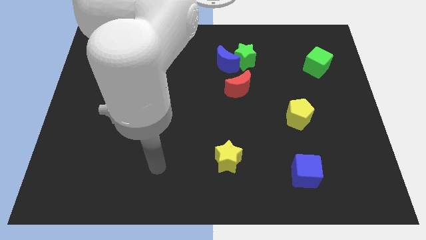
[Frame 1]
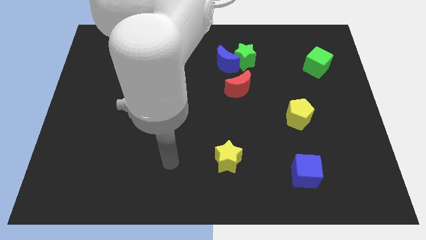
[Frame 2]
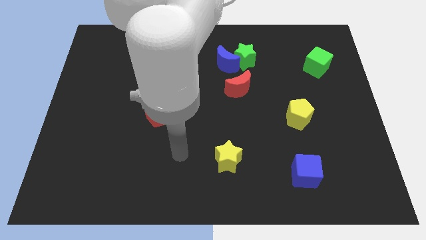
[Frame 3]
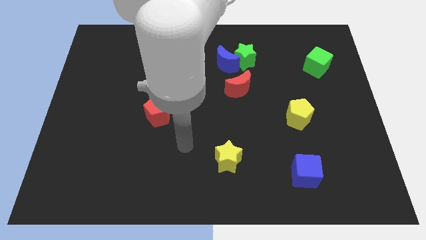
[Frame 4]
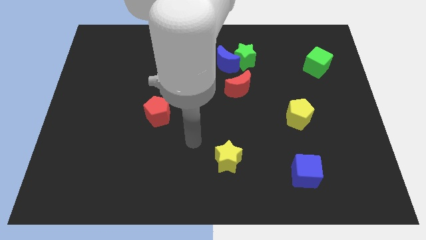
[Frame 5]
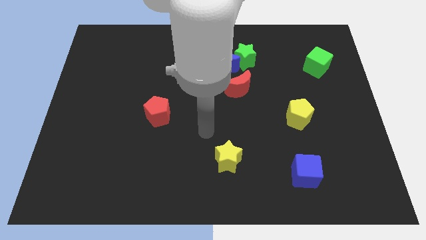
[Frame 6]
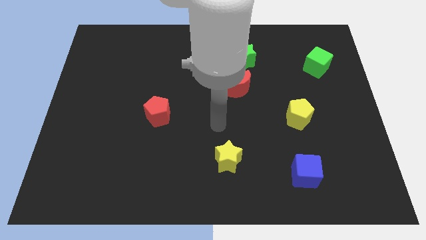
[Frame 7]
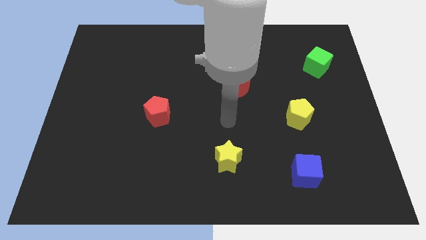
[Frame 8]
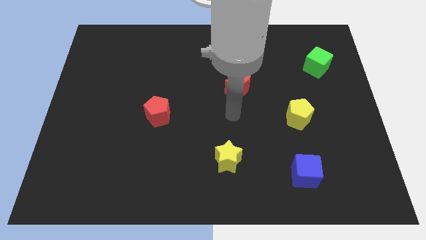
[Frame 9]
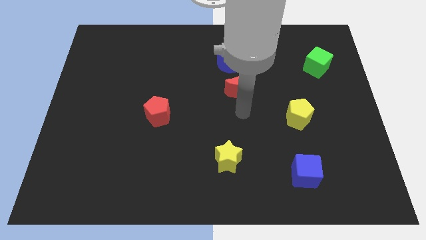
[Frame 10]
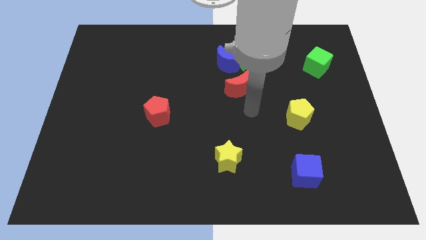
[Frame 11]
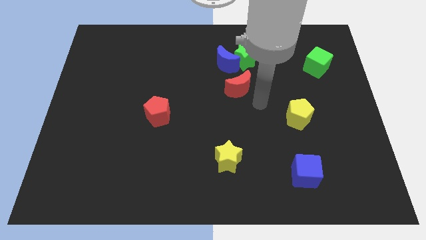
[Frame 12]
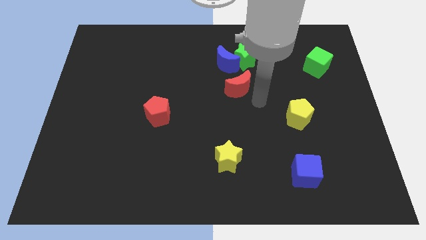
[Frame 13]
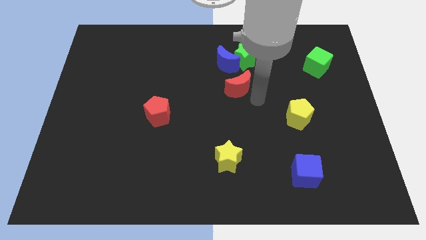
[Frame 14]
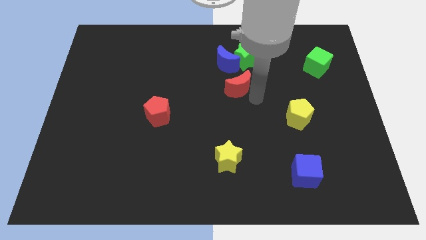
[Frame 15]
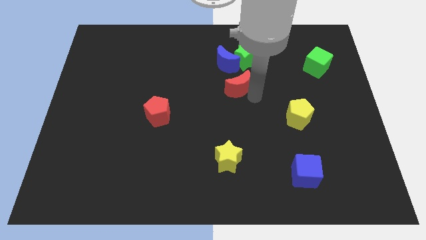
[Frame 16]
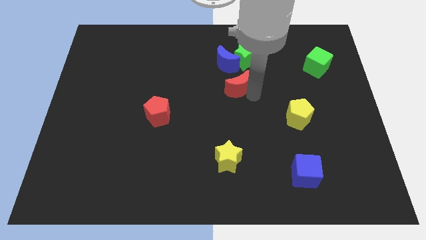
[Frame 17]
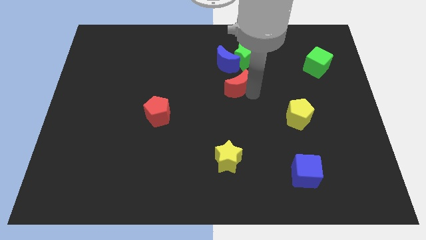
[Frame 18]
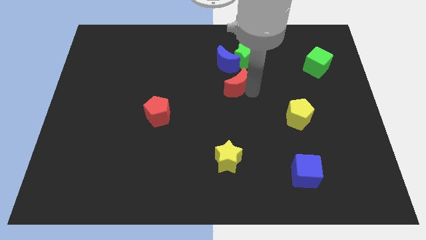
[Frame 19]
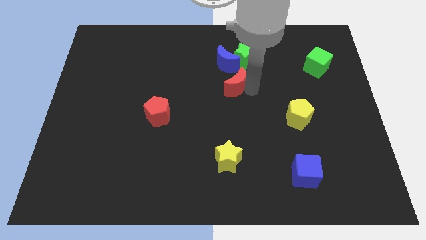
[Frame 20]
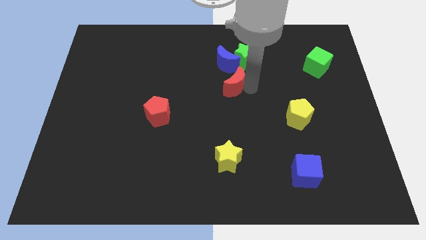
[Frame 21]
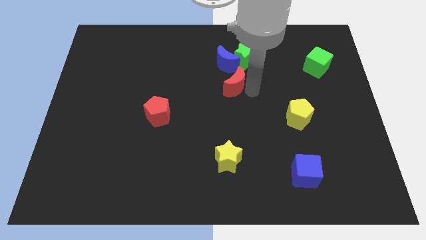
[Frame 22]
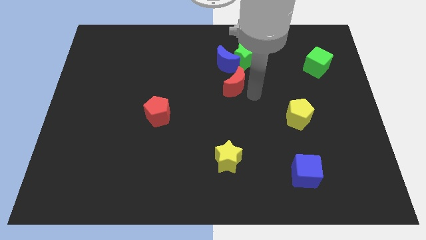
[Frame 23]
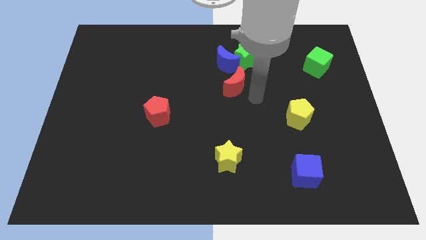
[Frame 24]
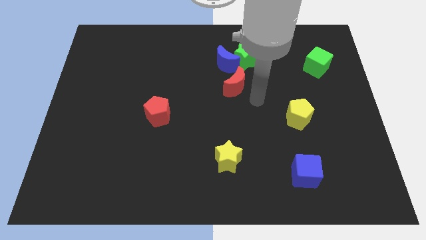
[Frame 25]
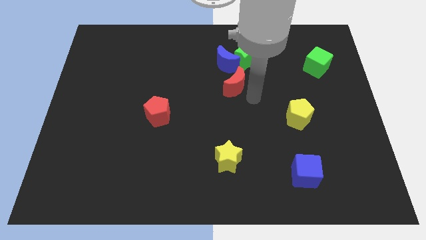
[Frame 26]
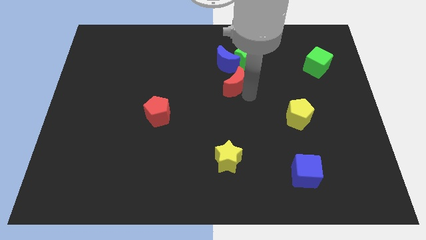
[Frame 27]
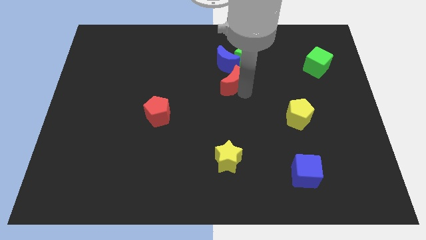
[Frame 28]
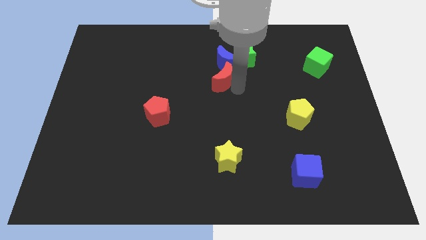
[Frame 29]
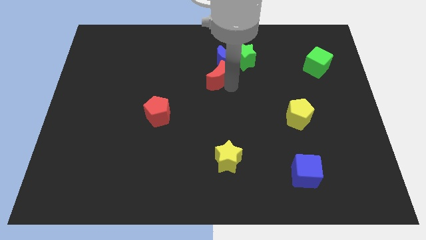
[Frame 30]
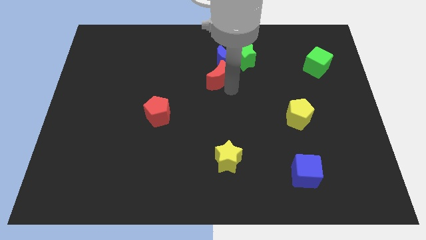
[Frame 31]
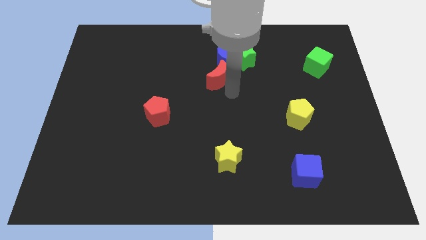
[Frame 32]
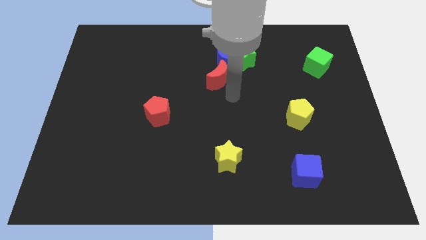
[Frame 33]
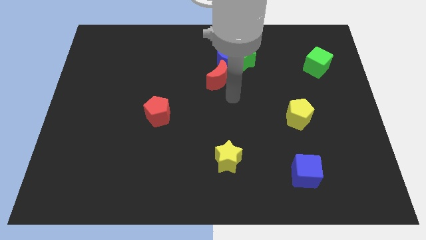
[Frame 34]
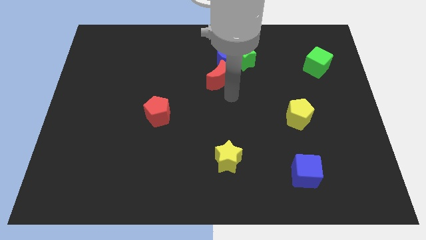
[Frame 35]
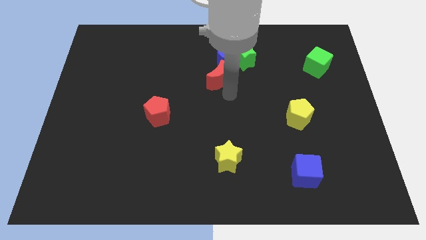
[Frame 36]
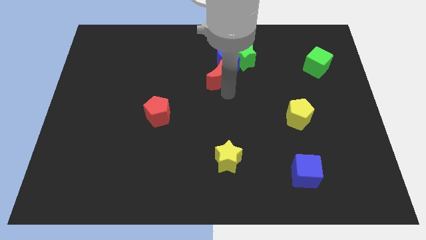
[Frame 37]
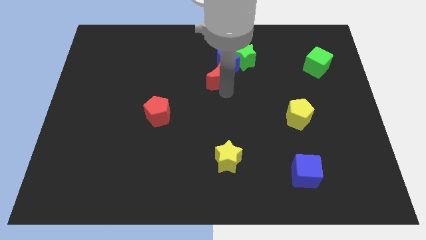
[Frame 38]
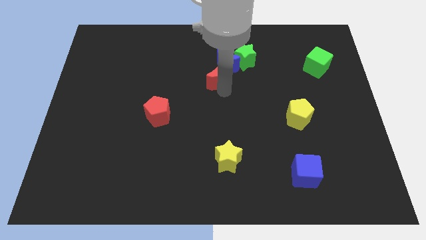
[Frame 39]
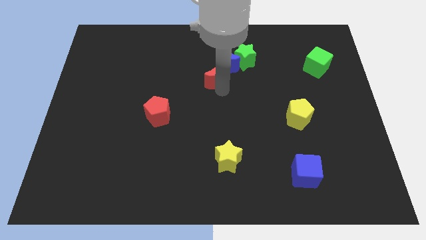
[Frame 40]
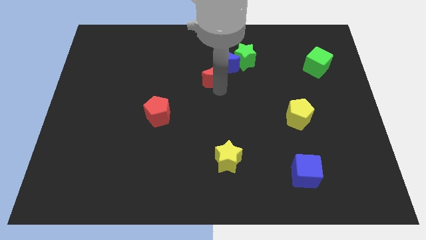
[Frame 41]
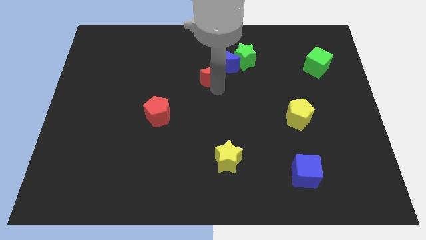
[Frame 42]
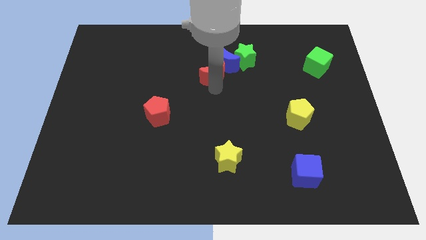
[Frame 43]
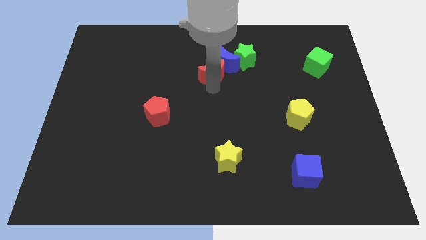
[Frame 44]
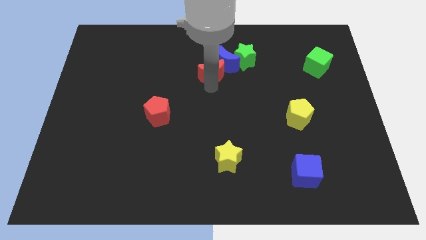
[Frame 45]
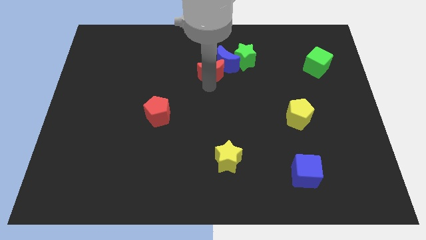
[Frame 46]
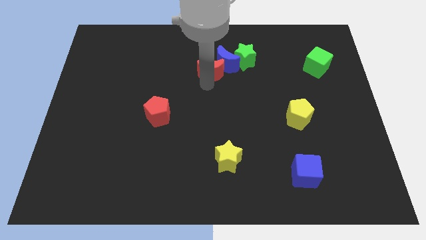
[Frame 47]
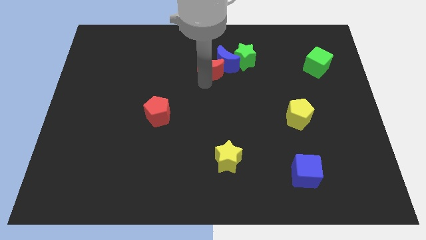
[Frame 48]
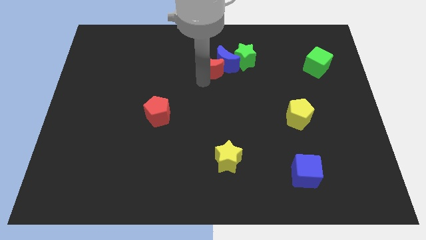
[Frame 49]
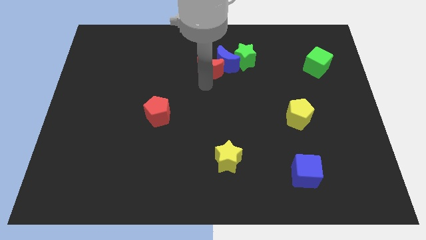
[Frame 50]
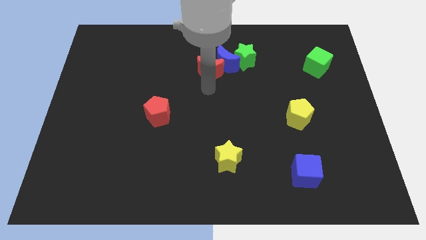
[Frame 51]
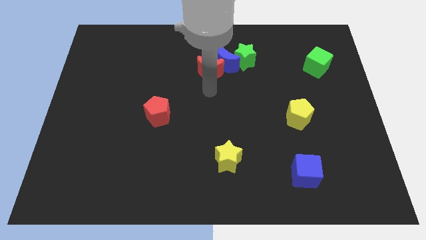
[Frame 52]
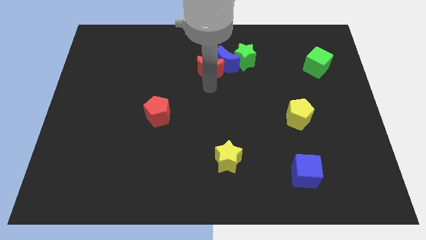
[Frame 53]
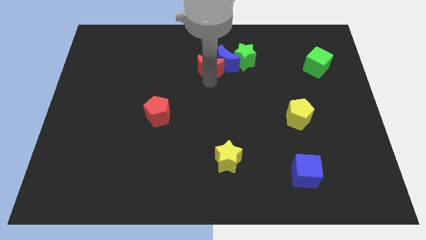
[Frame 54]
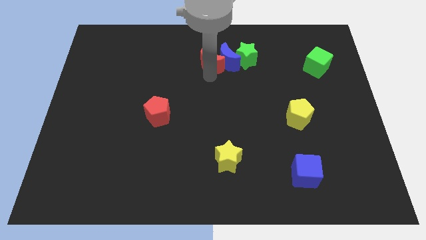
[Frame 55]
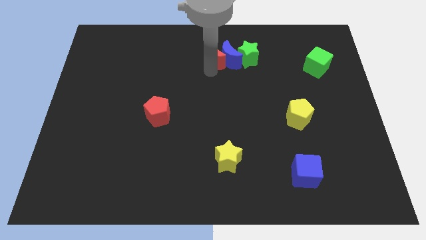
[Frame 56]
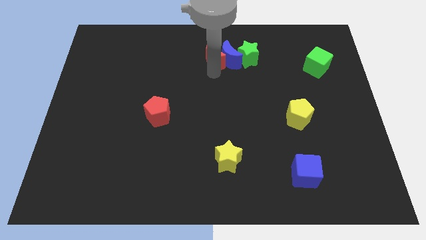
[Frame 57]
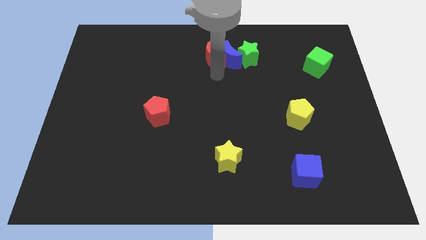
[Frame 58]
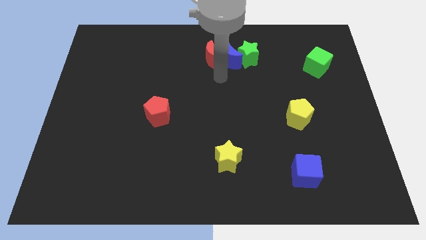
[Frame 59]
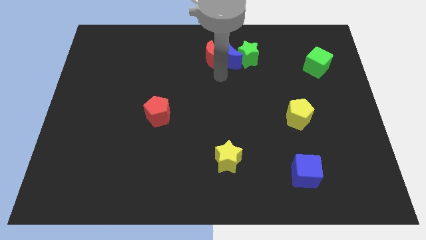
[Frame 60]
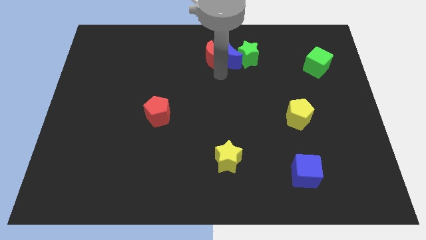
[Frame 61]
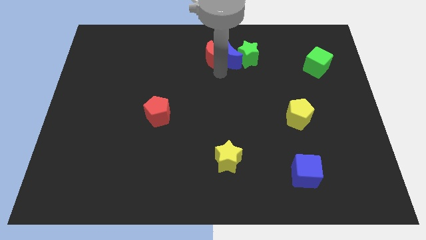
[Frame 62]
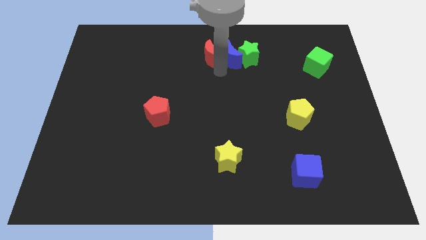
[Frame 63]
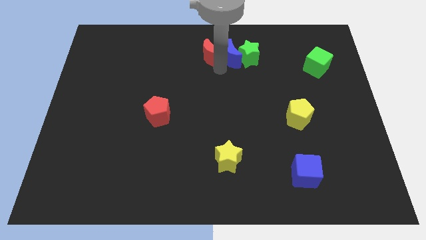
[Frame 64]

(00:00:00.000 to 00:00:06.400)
slide the red moon to the towards your base
